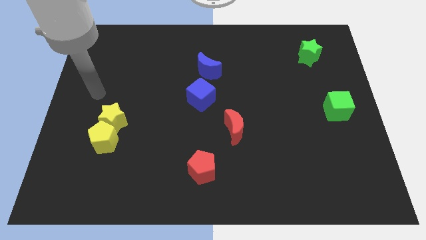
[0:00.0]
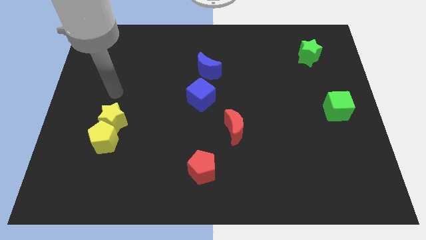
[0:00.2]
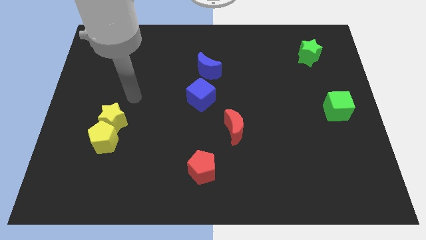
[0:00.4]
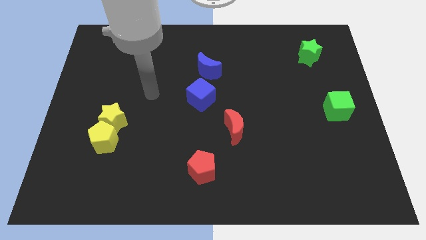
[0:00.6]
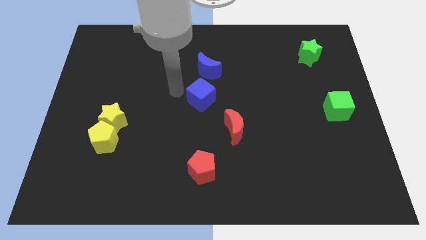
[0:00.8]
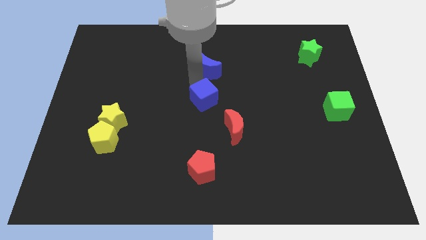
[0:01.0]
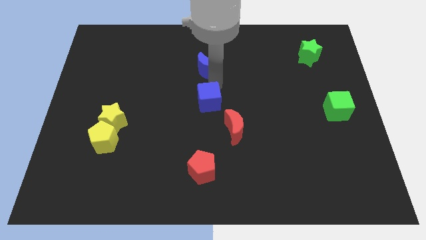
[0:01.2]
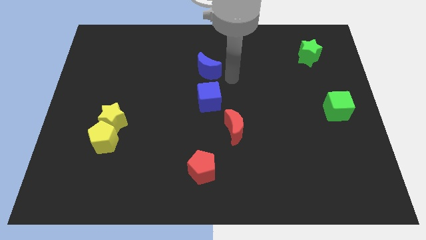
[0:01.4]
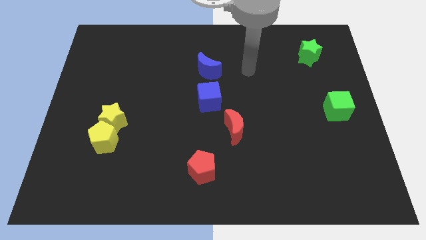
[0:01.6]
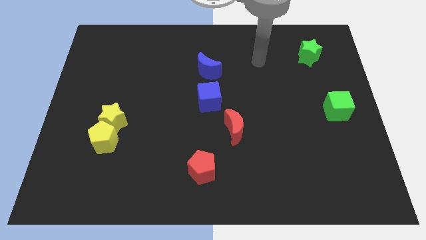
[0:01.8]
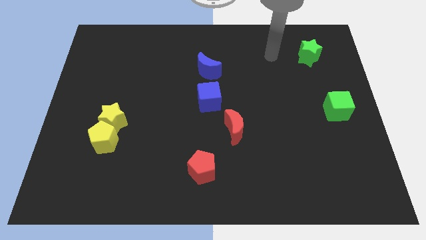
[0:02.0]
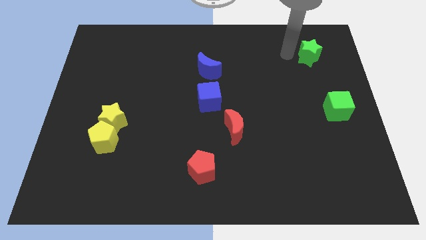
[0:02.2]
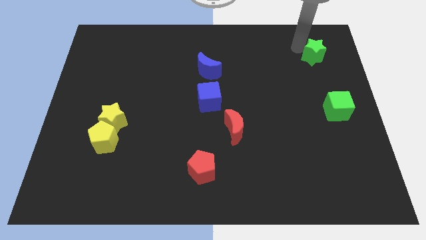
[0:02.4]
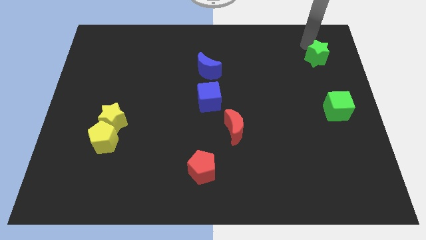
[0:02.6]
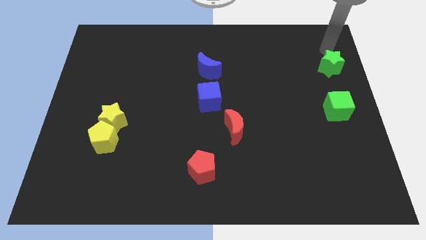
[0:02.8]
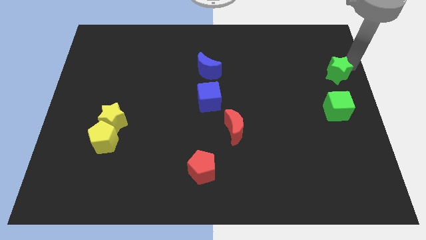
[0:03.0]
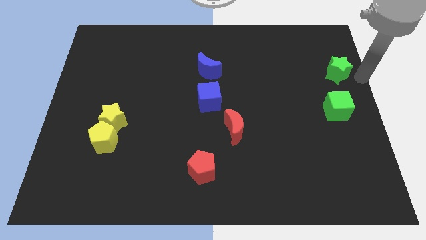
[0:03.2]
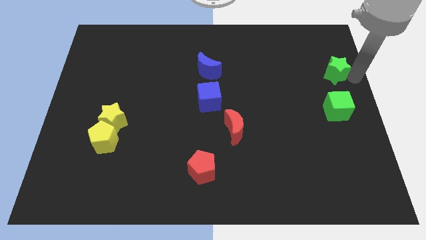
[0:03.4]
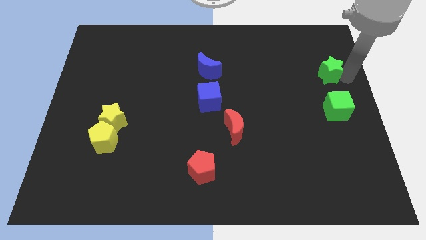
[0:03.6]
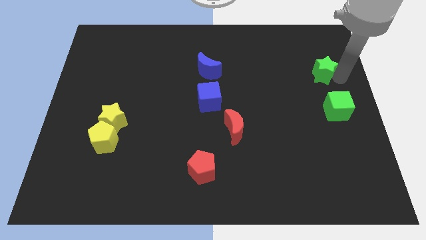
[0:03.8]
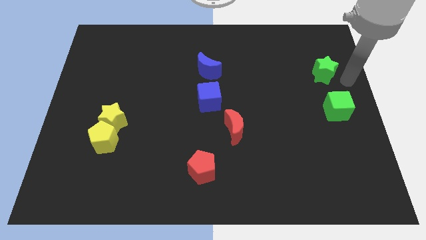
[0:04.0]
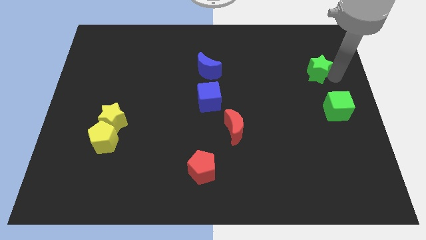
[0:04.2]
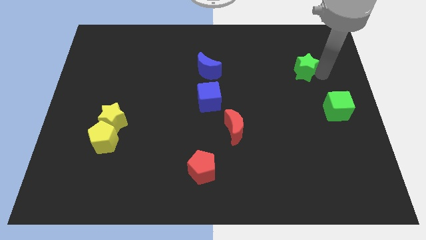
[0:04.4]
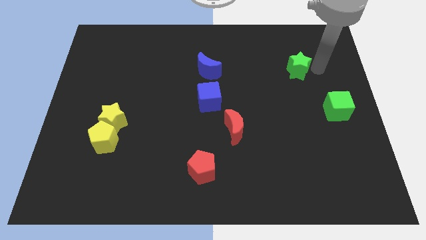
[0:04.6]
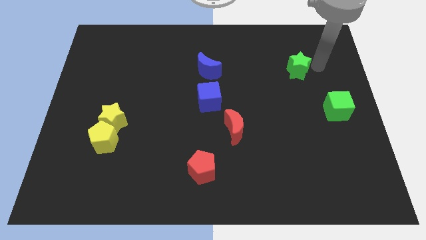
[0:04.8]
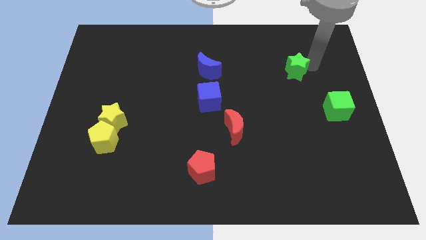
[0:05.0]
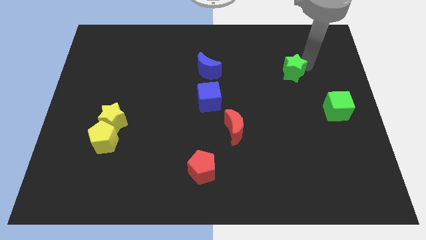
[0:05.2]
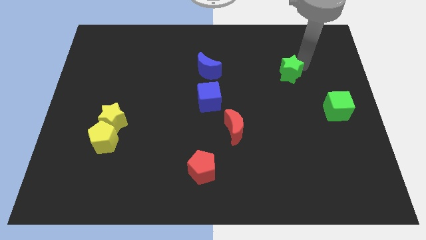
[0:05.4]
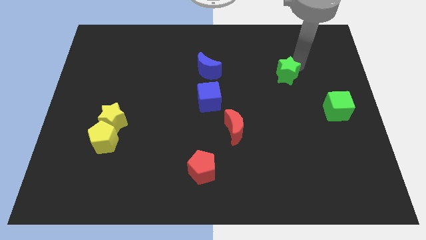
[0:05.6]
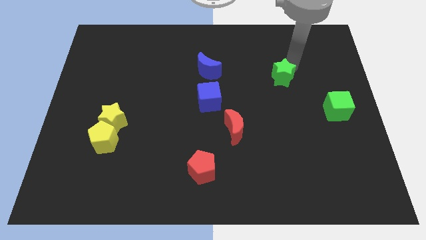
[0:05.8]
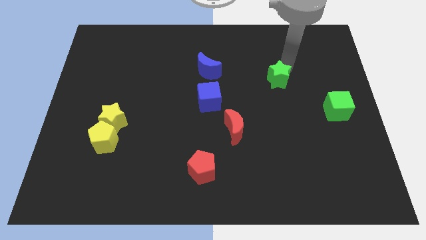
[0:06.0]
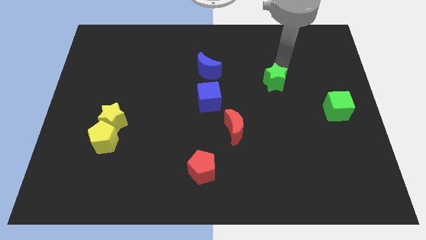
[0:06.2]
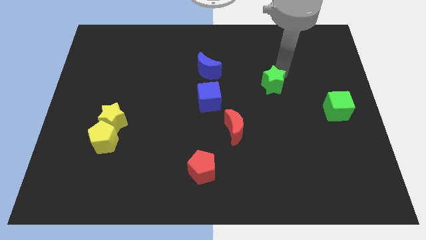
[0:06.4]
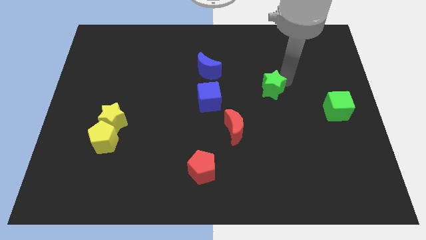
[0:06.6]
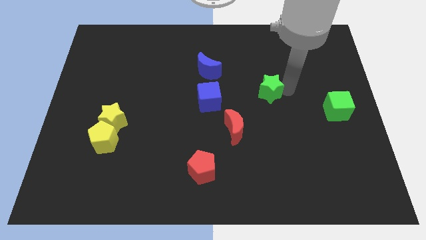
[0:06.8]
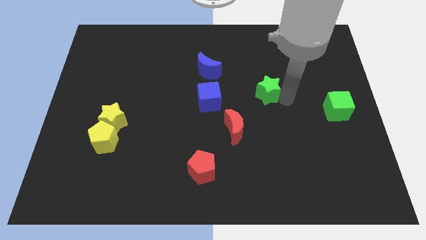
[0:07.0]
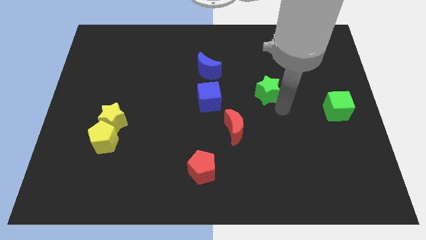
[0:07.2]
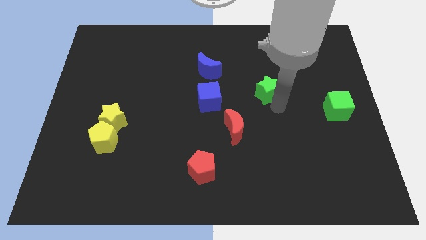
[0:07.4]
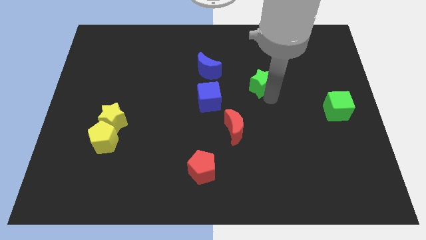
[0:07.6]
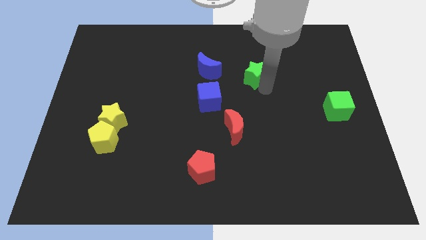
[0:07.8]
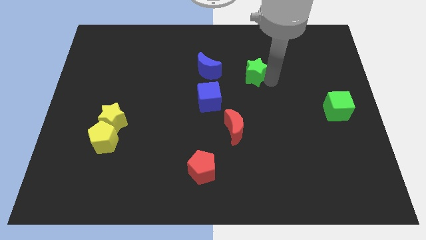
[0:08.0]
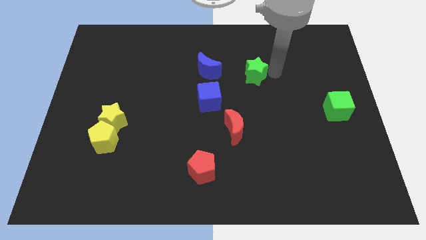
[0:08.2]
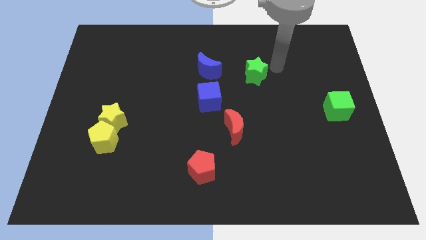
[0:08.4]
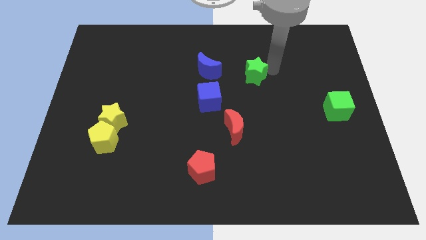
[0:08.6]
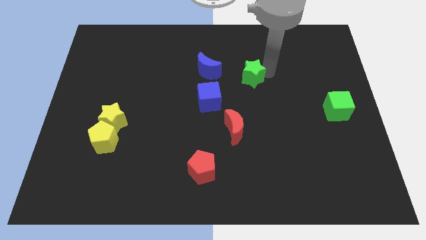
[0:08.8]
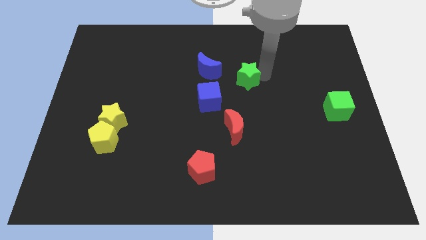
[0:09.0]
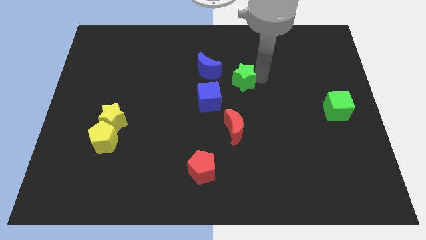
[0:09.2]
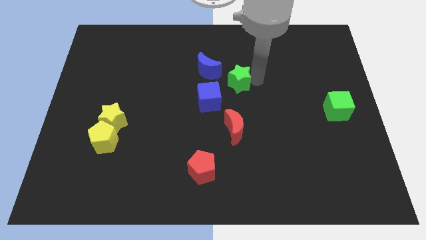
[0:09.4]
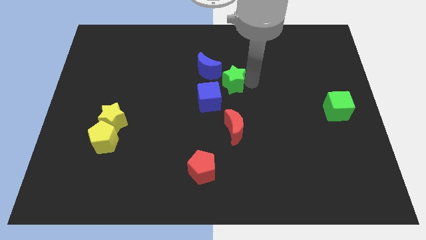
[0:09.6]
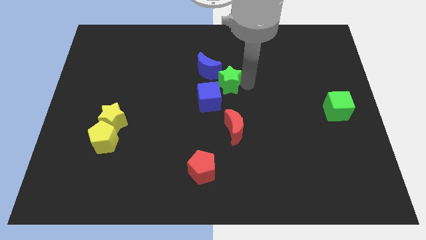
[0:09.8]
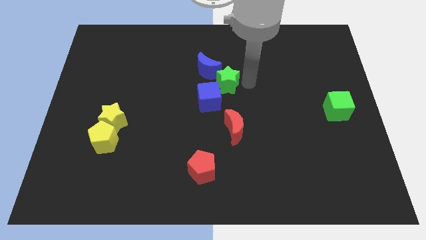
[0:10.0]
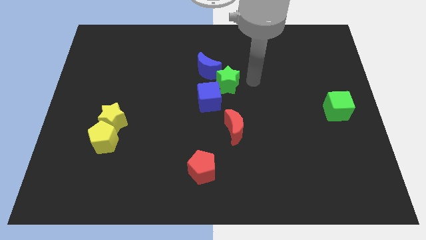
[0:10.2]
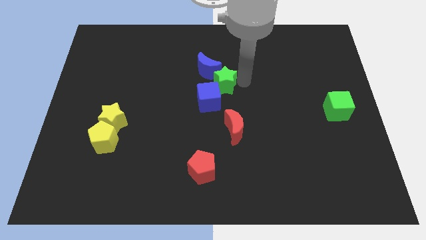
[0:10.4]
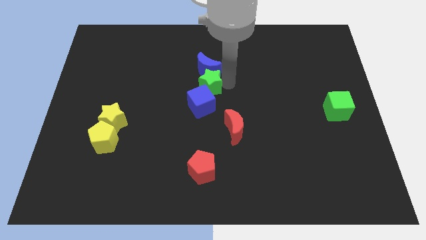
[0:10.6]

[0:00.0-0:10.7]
push the green star to the bottom left side of the blue moon

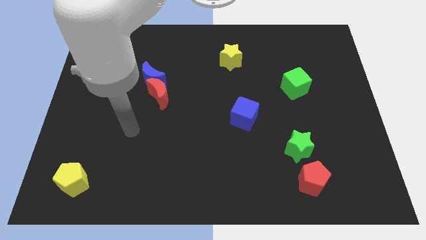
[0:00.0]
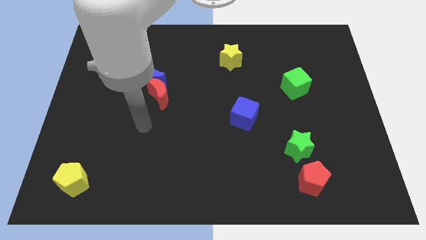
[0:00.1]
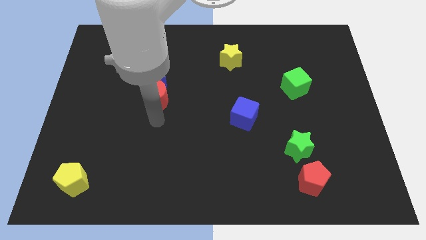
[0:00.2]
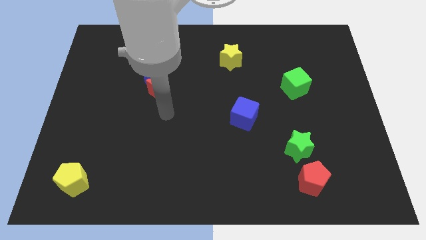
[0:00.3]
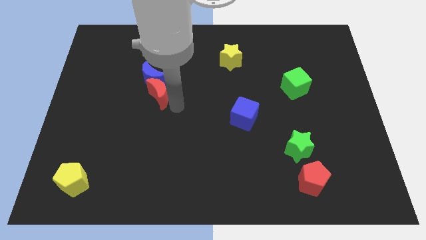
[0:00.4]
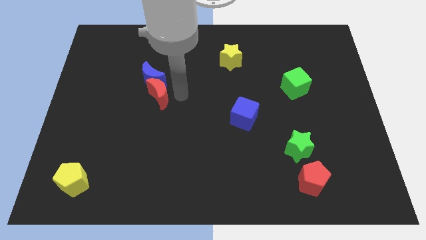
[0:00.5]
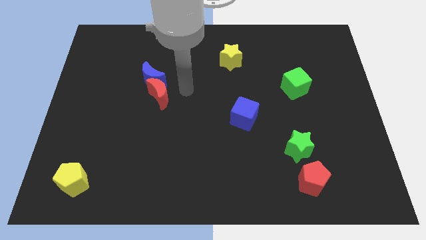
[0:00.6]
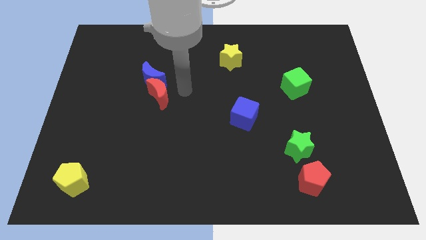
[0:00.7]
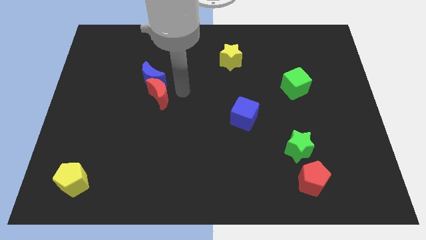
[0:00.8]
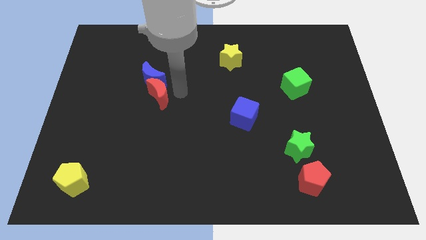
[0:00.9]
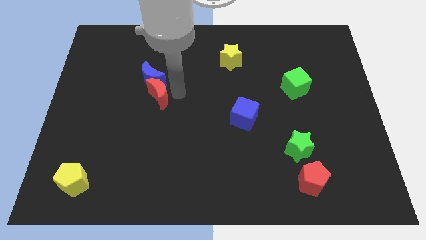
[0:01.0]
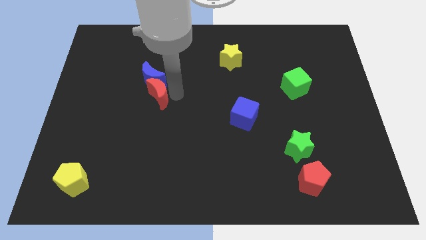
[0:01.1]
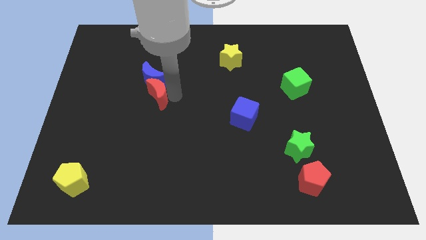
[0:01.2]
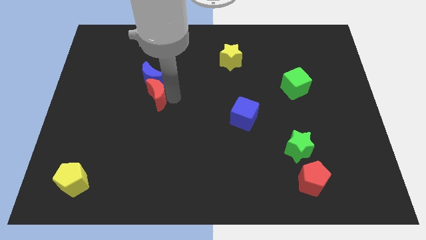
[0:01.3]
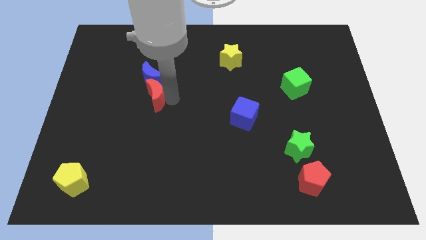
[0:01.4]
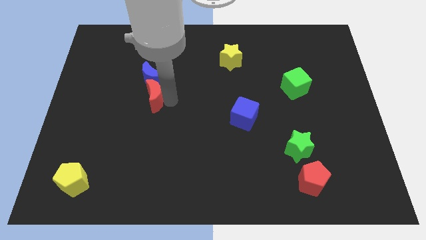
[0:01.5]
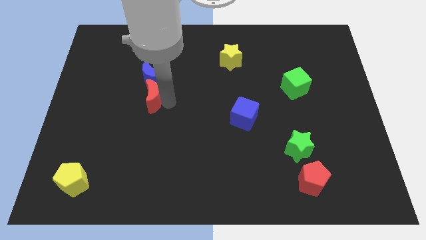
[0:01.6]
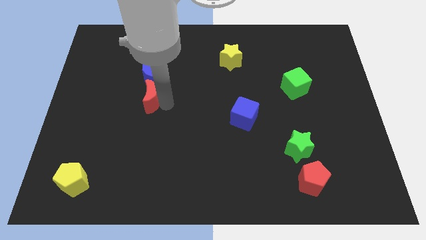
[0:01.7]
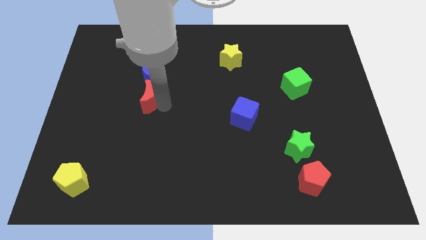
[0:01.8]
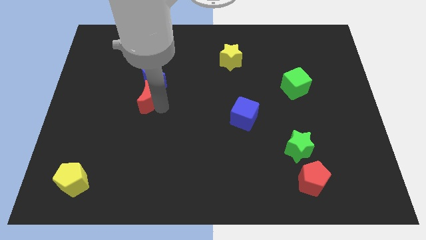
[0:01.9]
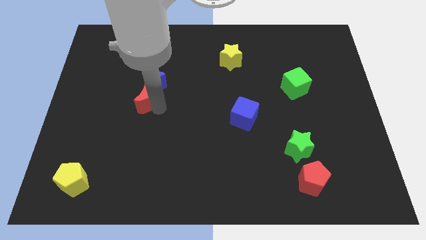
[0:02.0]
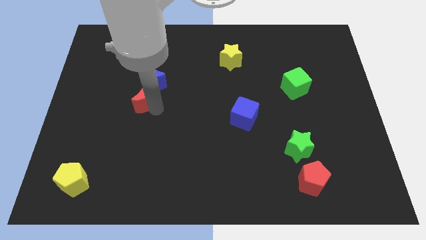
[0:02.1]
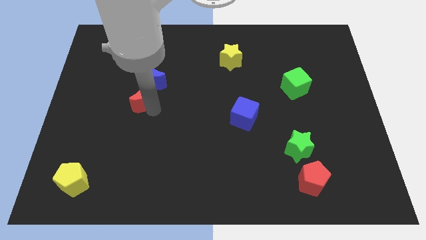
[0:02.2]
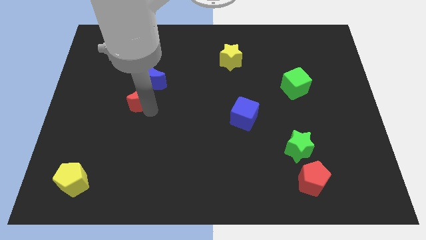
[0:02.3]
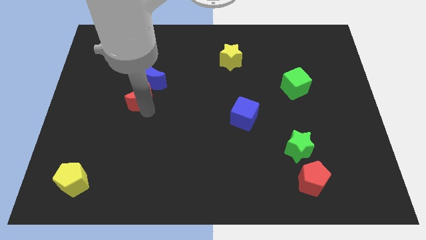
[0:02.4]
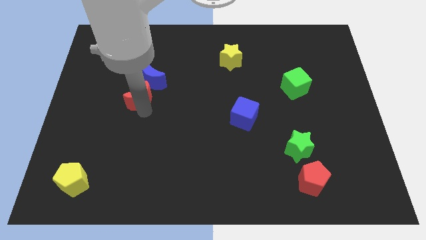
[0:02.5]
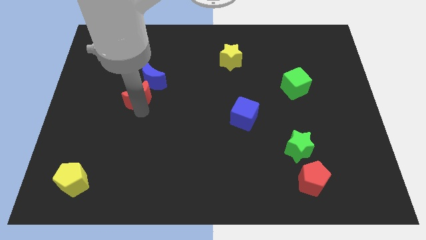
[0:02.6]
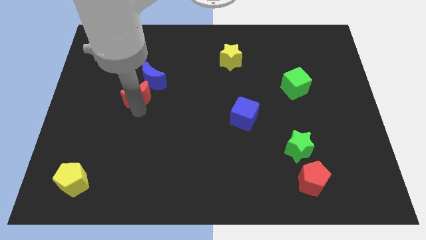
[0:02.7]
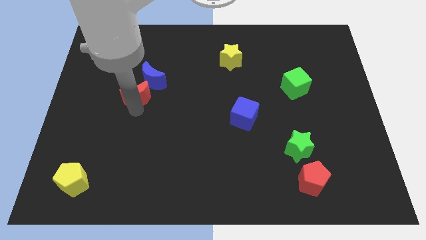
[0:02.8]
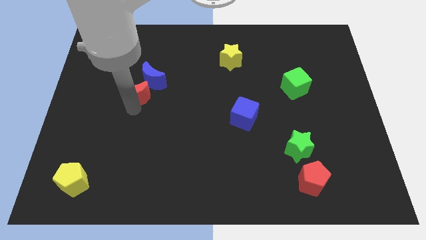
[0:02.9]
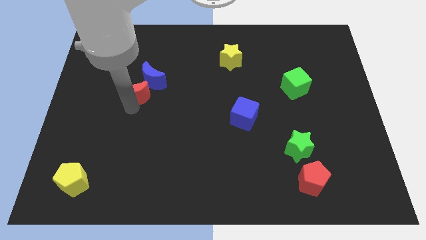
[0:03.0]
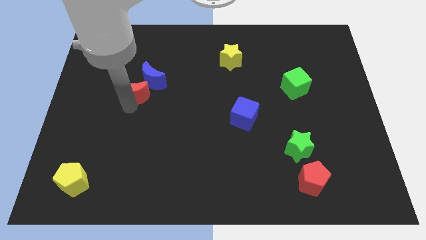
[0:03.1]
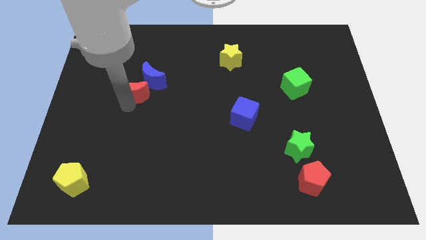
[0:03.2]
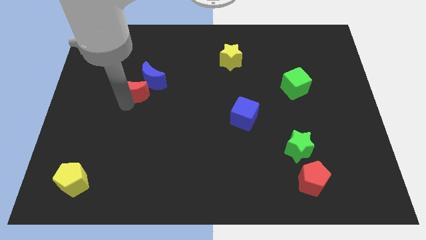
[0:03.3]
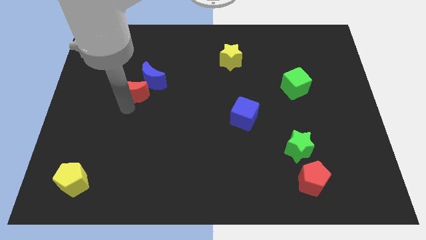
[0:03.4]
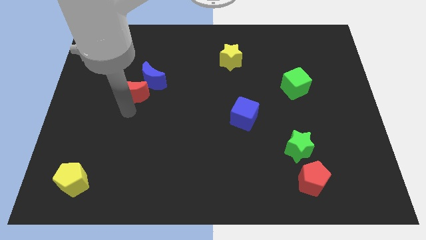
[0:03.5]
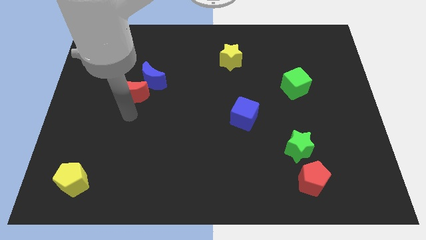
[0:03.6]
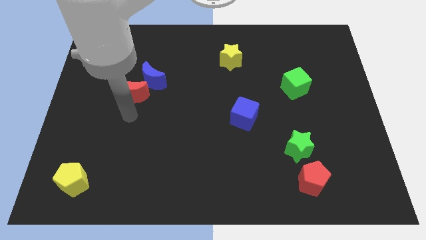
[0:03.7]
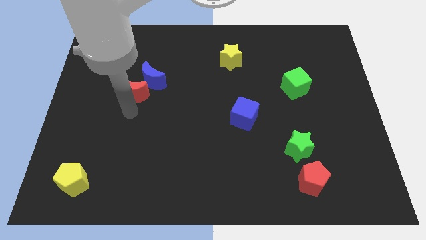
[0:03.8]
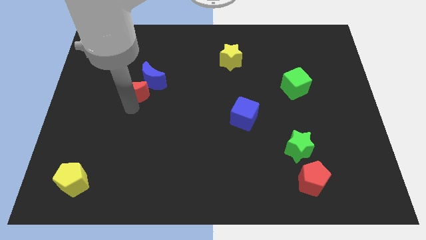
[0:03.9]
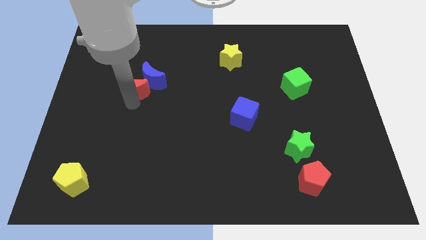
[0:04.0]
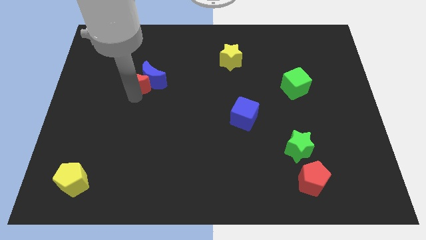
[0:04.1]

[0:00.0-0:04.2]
push the red moon diagonally up and to the left of the blue moon
